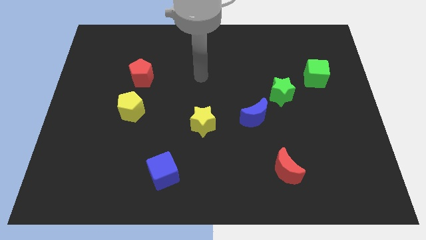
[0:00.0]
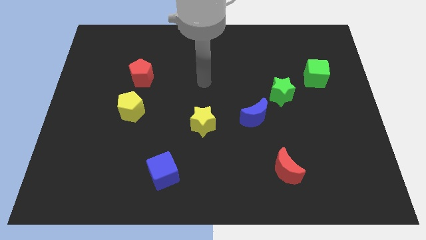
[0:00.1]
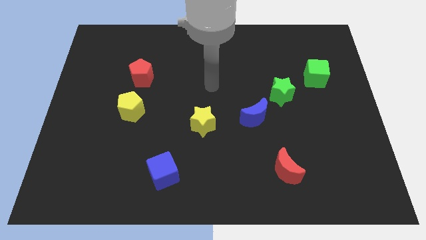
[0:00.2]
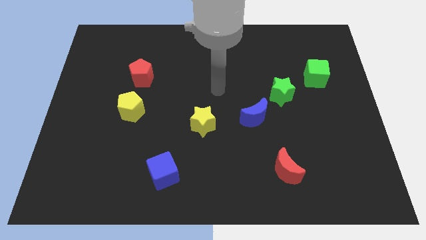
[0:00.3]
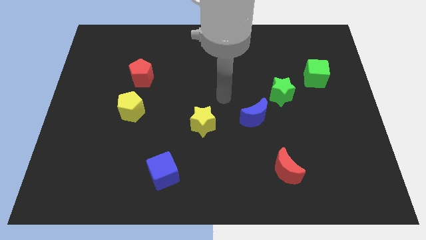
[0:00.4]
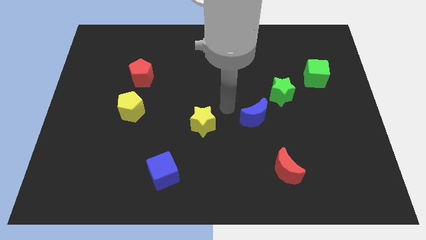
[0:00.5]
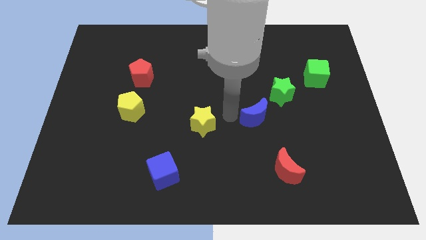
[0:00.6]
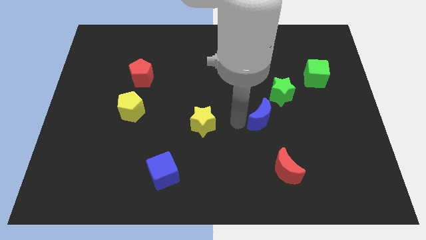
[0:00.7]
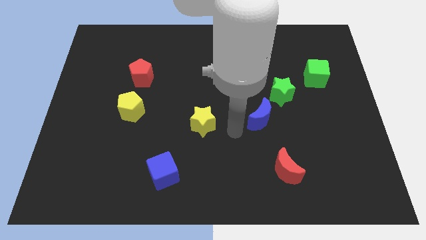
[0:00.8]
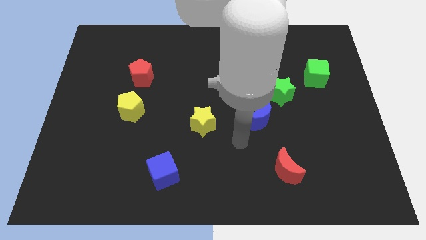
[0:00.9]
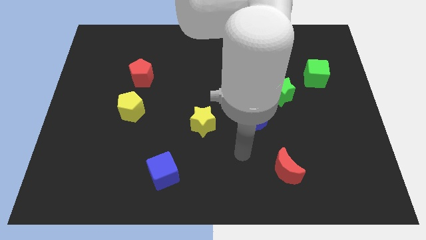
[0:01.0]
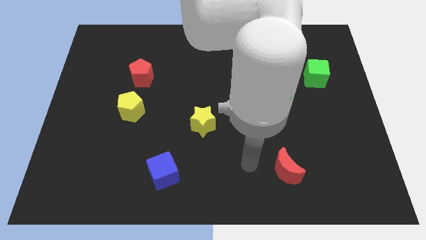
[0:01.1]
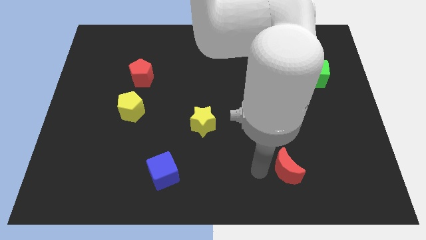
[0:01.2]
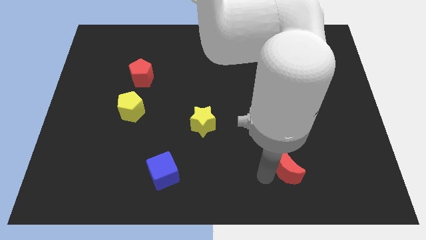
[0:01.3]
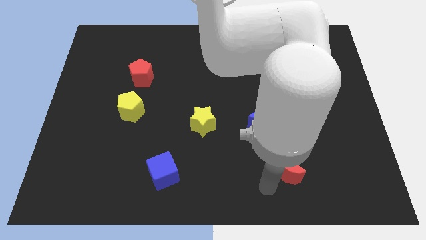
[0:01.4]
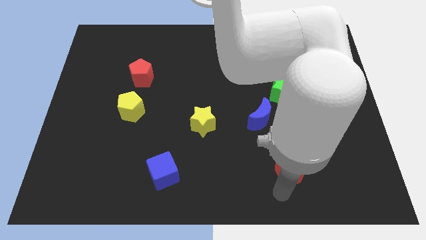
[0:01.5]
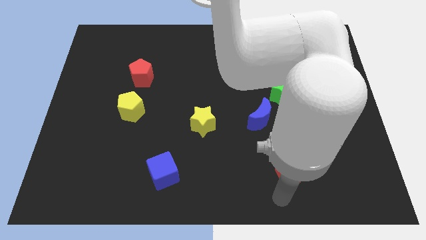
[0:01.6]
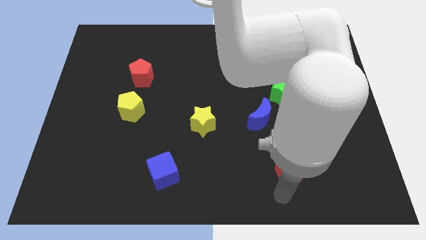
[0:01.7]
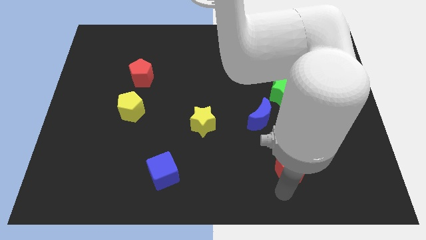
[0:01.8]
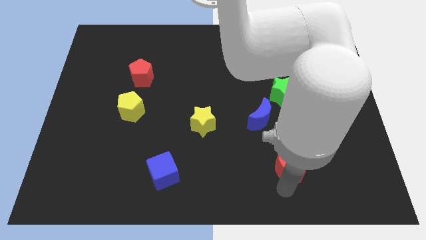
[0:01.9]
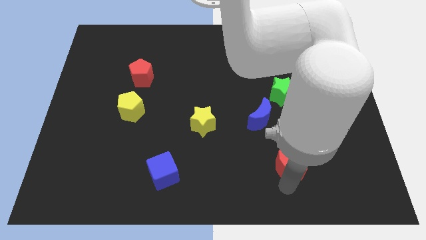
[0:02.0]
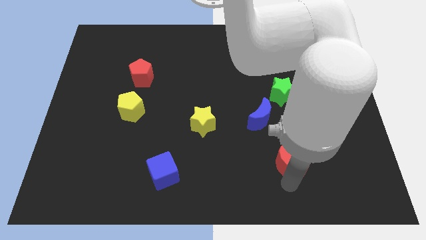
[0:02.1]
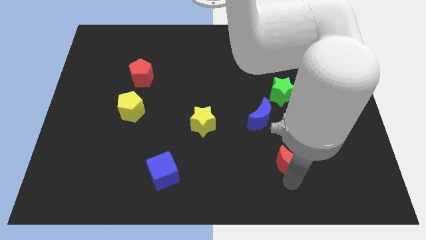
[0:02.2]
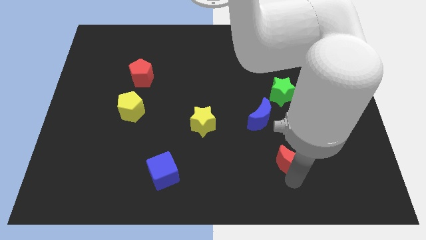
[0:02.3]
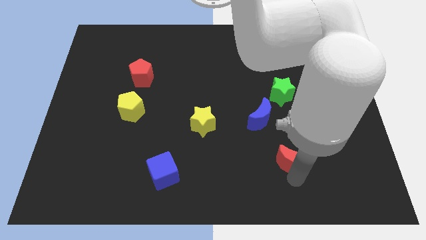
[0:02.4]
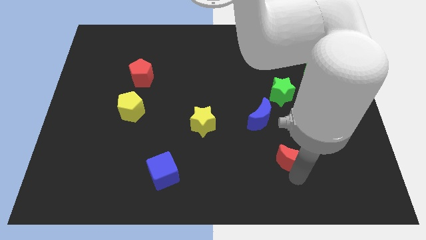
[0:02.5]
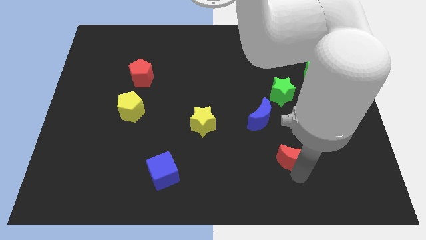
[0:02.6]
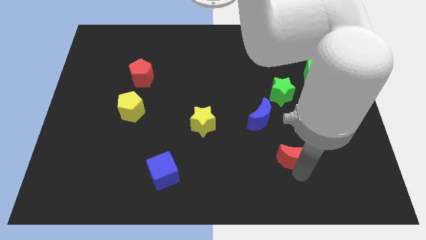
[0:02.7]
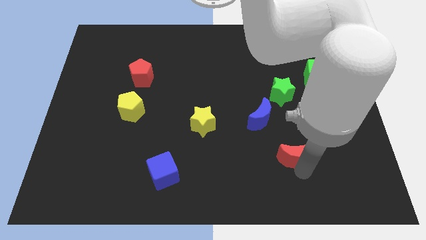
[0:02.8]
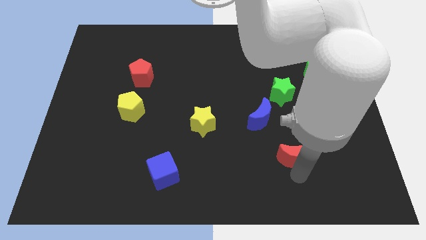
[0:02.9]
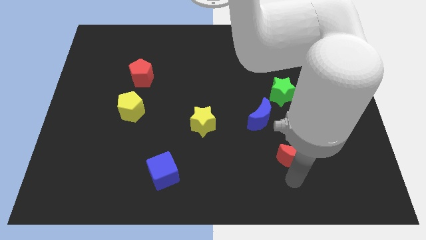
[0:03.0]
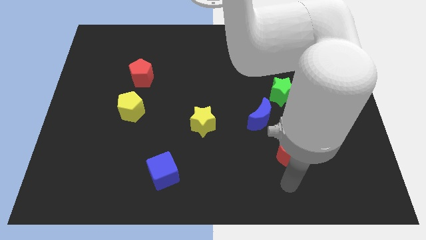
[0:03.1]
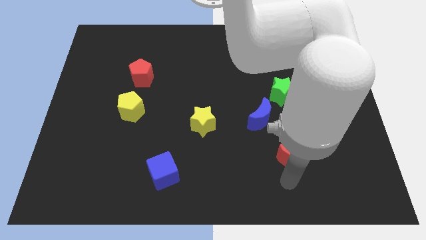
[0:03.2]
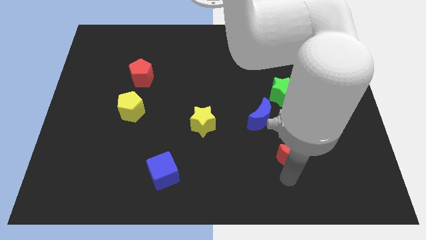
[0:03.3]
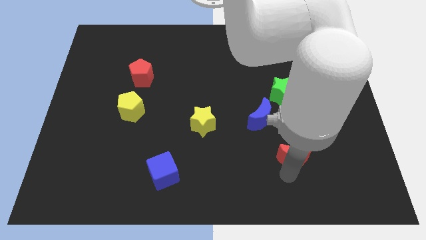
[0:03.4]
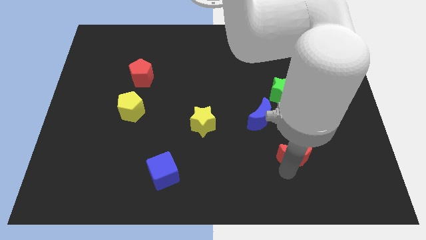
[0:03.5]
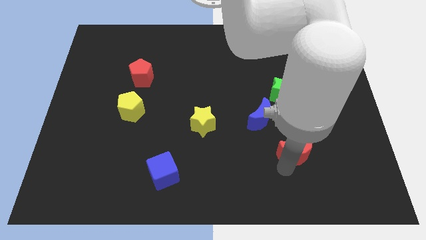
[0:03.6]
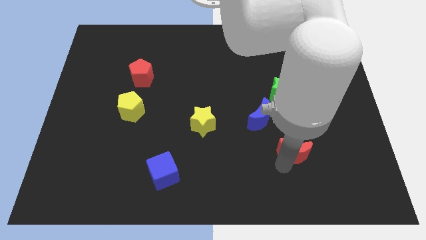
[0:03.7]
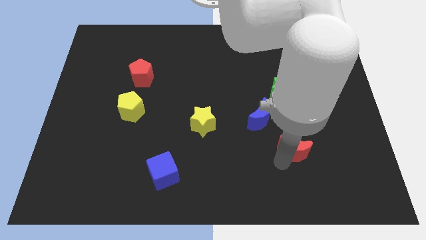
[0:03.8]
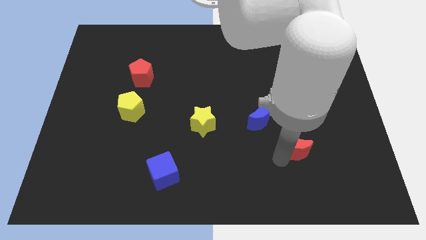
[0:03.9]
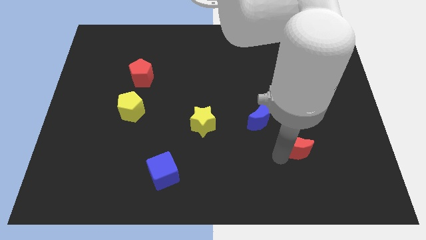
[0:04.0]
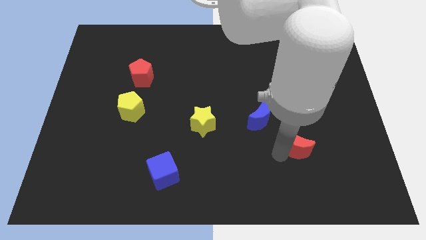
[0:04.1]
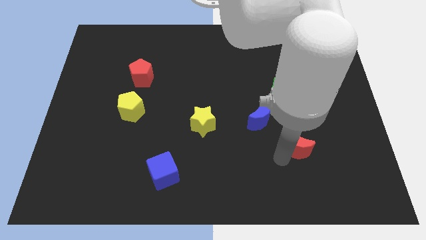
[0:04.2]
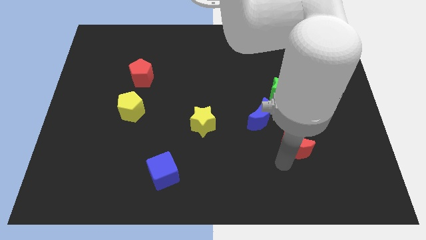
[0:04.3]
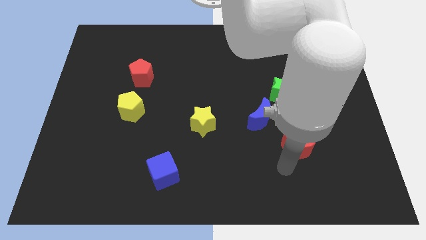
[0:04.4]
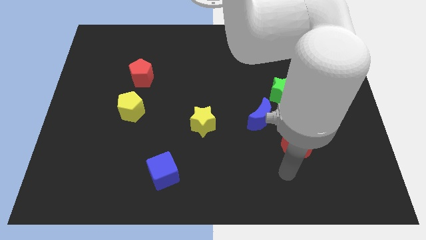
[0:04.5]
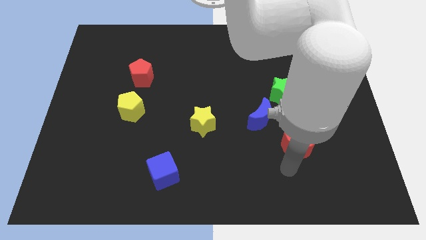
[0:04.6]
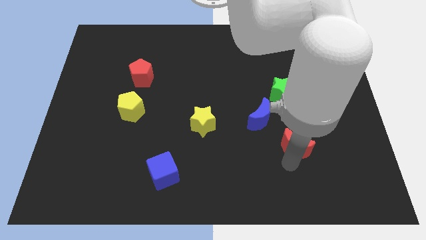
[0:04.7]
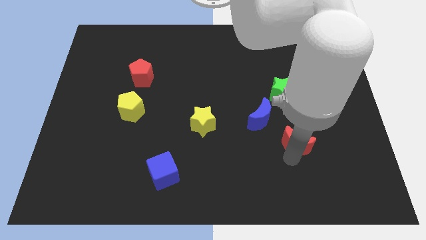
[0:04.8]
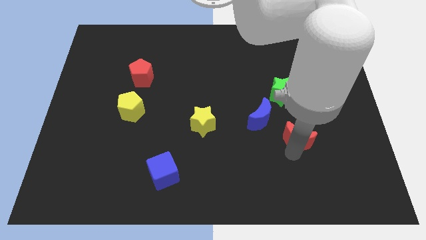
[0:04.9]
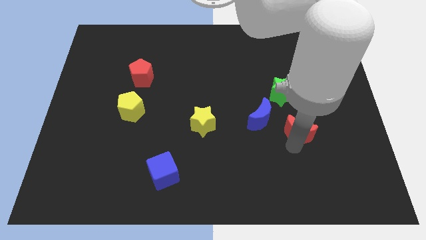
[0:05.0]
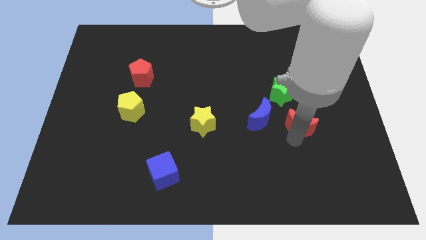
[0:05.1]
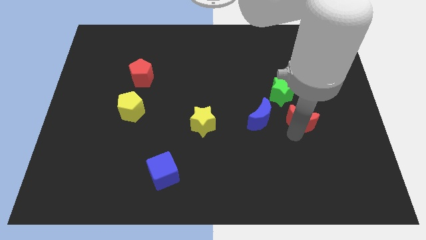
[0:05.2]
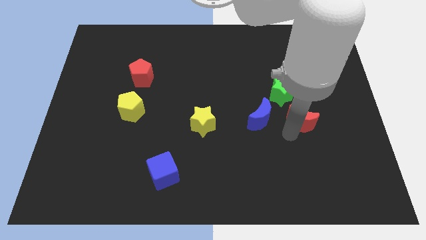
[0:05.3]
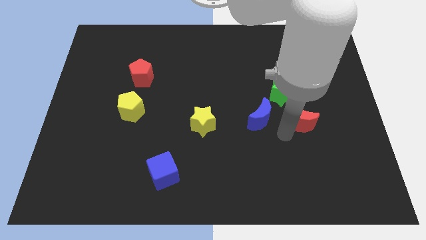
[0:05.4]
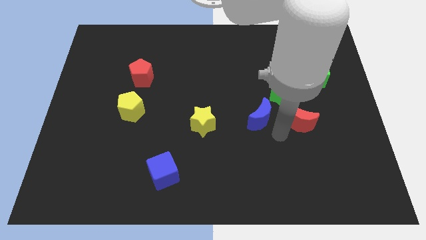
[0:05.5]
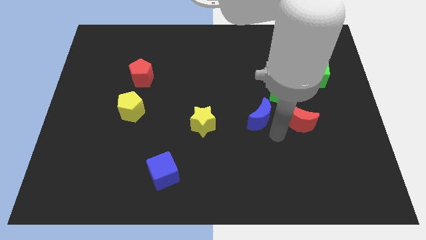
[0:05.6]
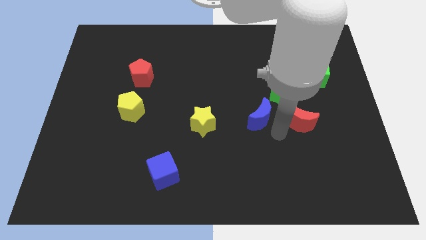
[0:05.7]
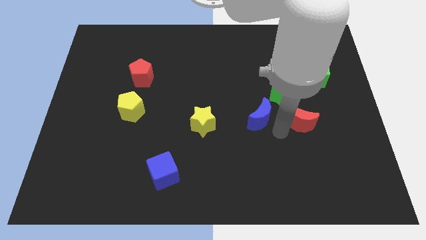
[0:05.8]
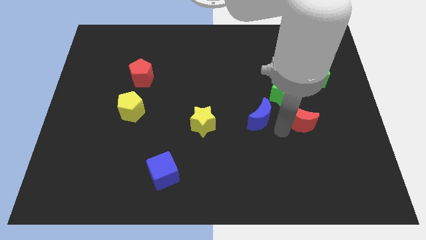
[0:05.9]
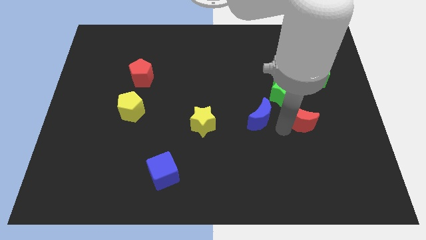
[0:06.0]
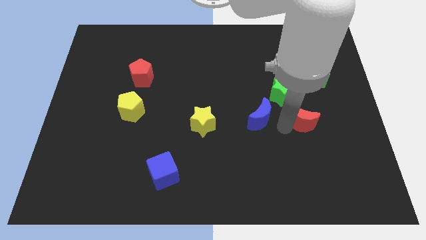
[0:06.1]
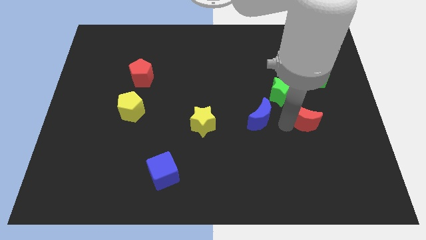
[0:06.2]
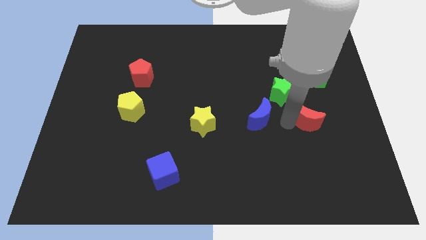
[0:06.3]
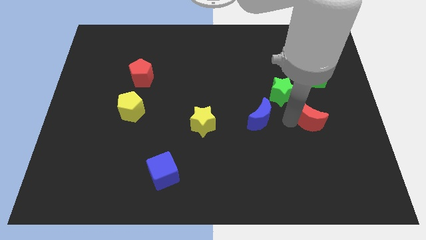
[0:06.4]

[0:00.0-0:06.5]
slide the red moon below the green cube
